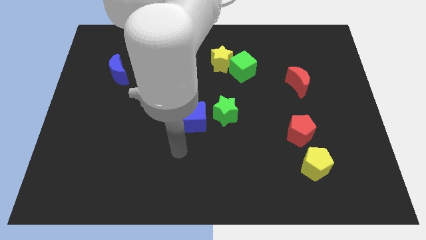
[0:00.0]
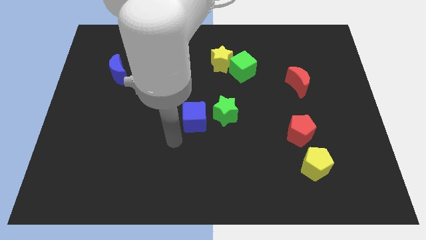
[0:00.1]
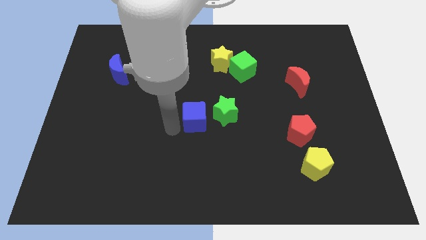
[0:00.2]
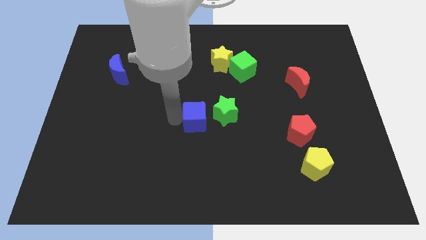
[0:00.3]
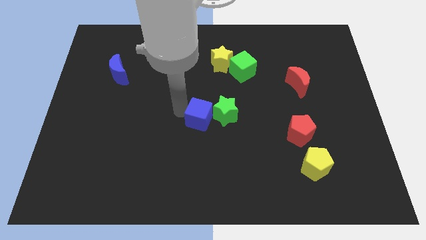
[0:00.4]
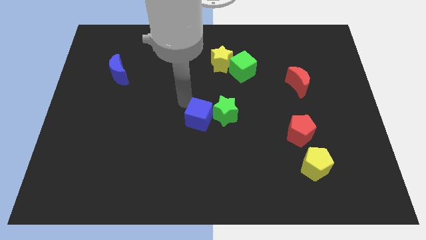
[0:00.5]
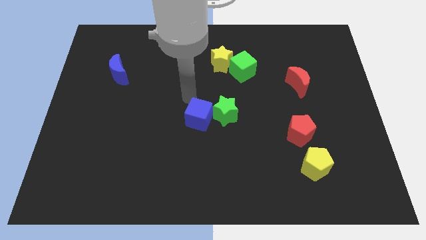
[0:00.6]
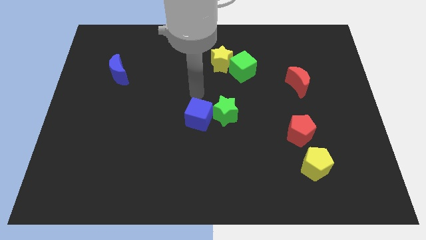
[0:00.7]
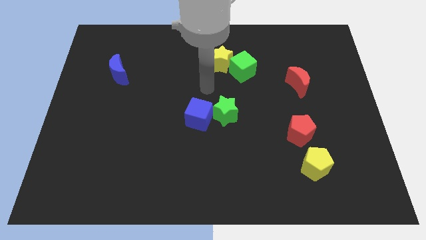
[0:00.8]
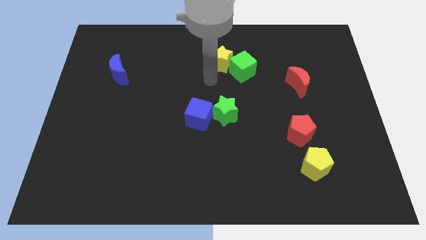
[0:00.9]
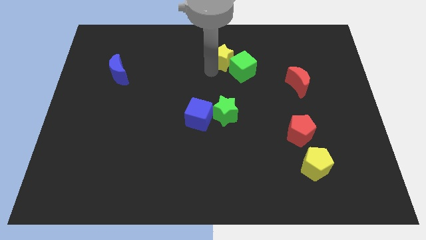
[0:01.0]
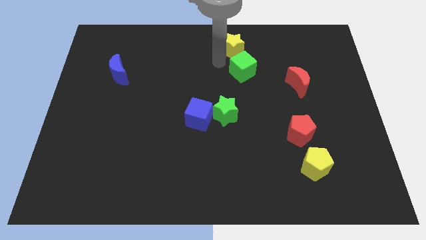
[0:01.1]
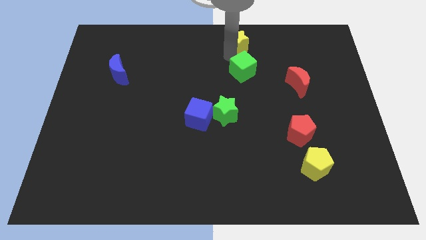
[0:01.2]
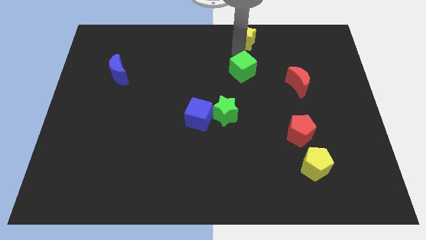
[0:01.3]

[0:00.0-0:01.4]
pull the green cube apart from the yellow star

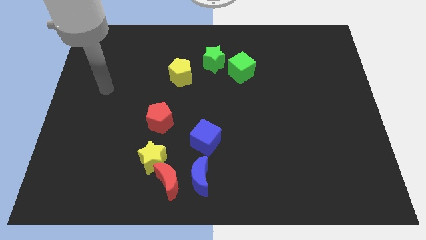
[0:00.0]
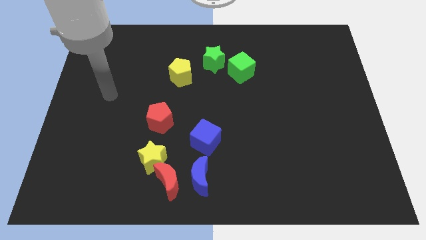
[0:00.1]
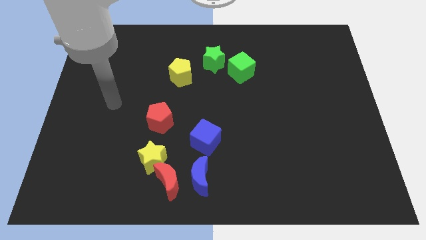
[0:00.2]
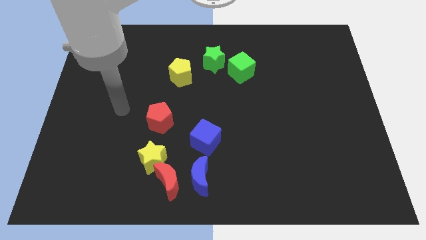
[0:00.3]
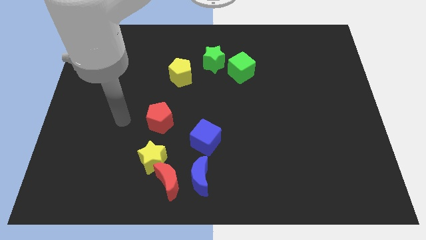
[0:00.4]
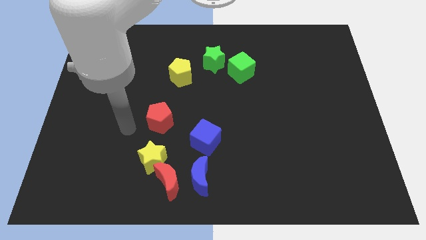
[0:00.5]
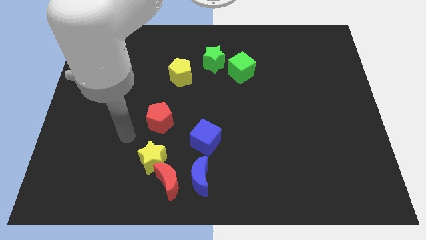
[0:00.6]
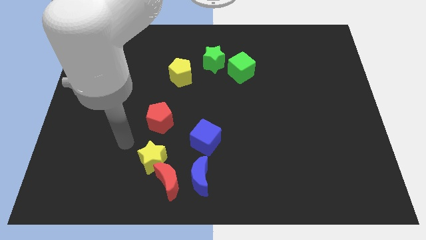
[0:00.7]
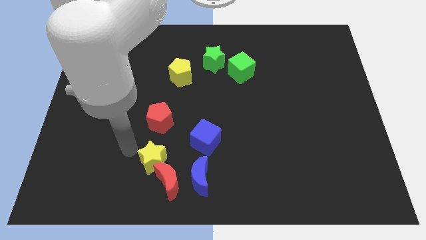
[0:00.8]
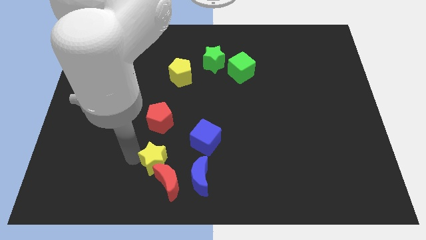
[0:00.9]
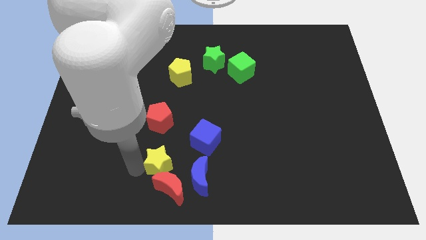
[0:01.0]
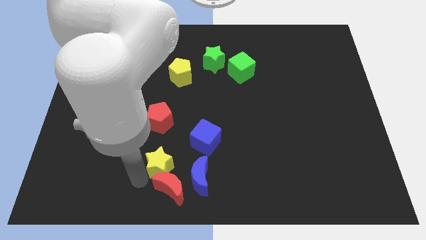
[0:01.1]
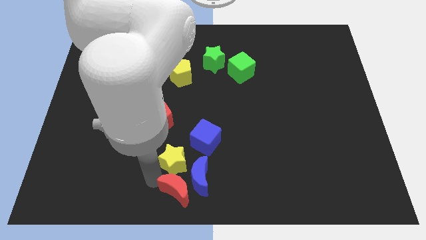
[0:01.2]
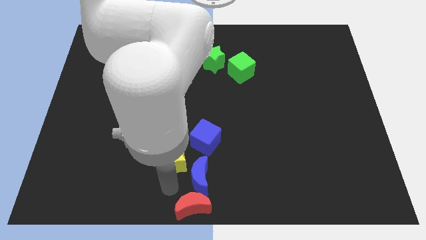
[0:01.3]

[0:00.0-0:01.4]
separate the yellow star from the red moon

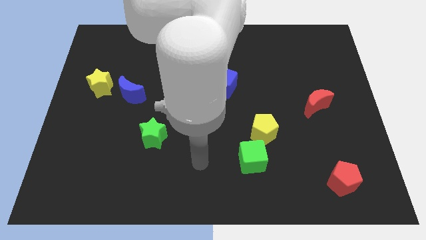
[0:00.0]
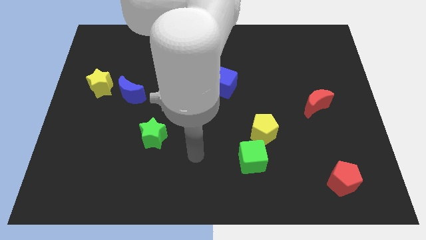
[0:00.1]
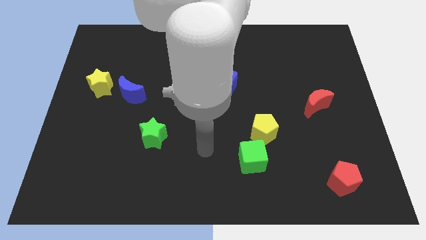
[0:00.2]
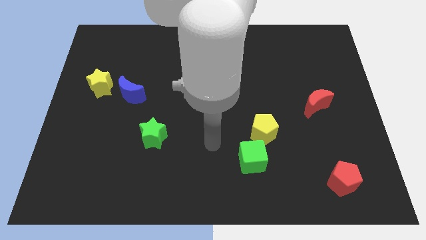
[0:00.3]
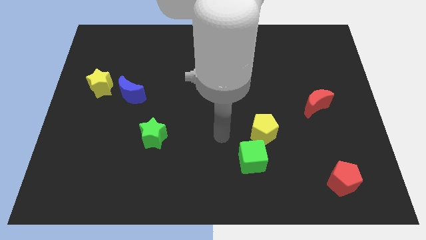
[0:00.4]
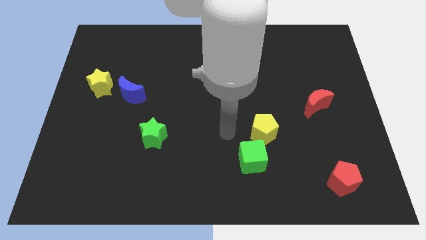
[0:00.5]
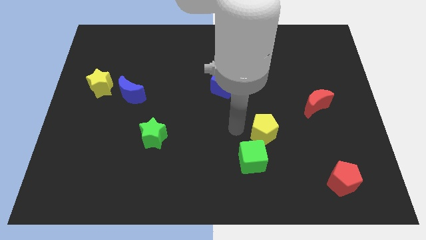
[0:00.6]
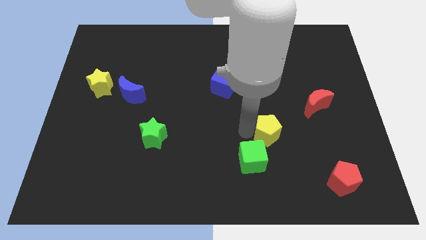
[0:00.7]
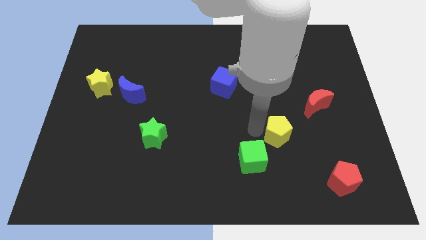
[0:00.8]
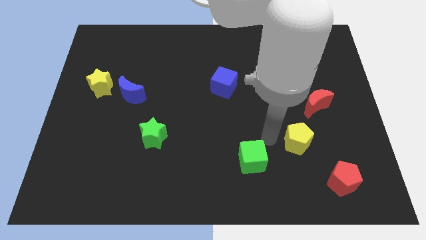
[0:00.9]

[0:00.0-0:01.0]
pull the green cube apart from the yellow pentagon

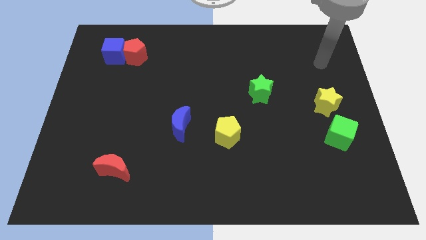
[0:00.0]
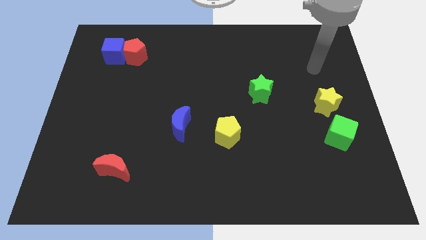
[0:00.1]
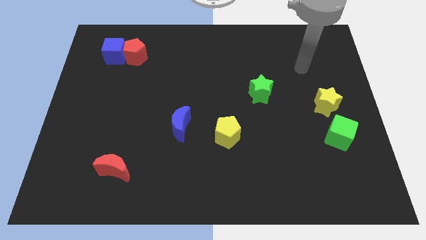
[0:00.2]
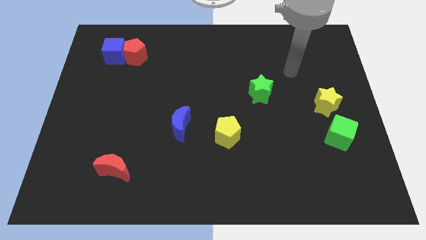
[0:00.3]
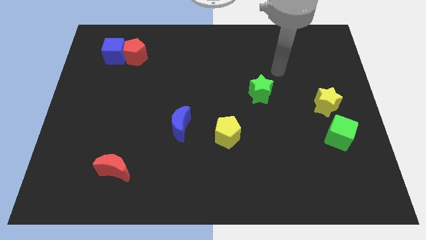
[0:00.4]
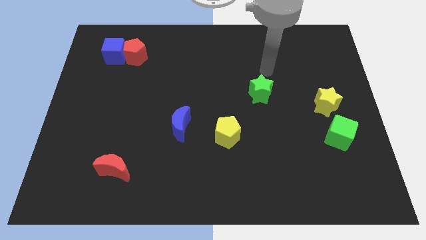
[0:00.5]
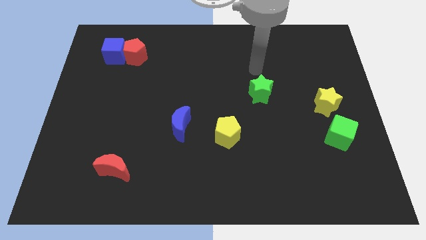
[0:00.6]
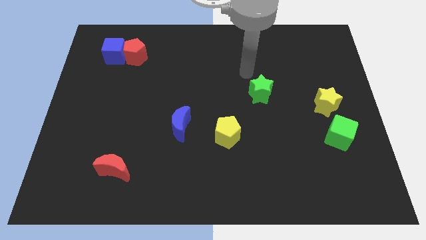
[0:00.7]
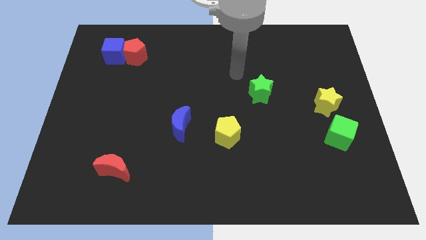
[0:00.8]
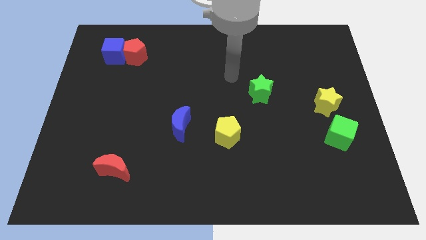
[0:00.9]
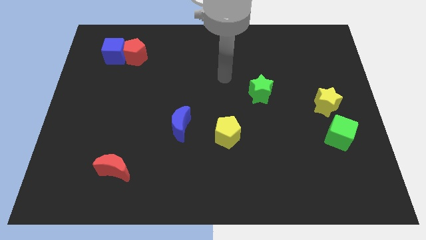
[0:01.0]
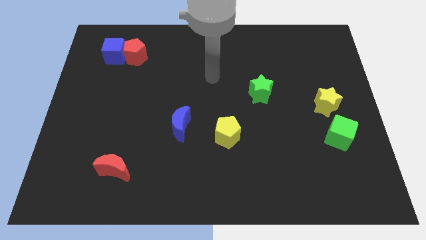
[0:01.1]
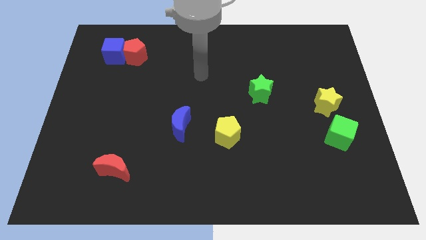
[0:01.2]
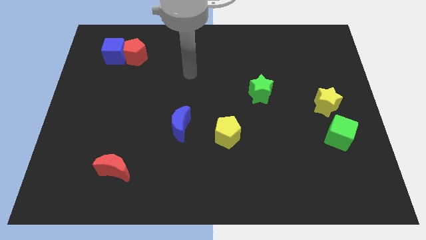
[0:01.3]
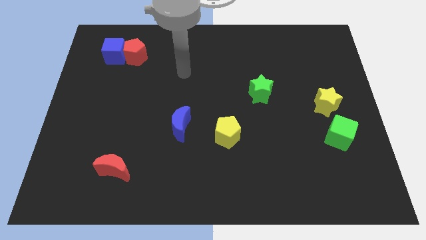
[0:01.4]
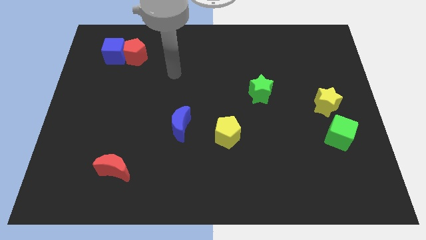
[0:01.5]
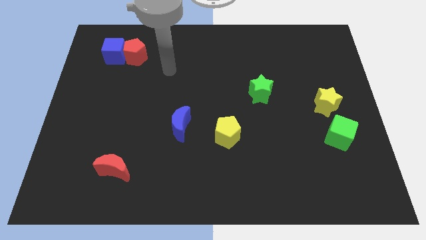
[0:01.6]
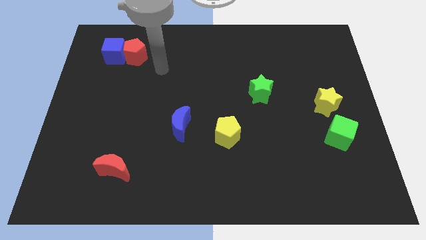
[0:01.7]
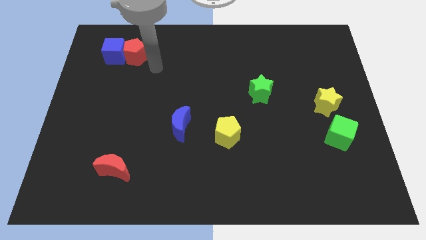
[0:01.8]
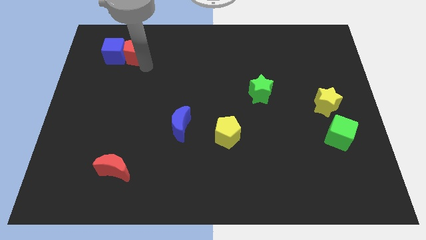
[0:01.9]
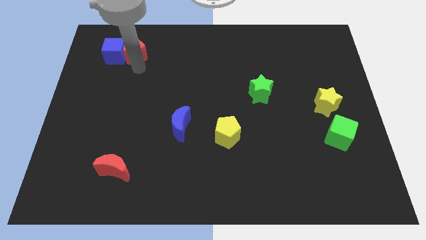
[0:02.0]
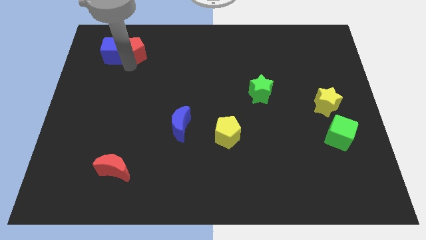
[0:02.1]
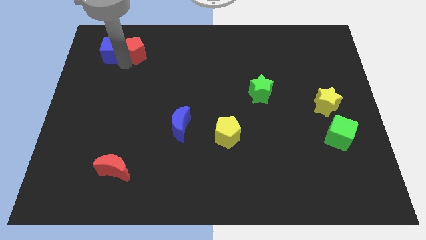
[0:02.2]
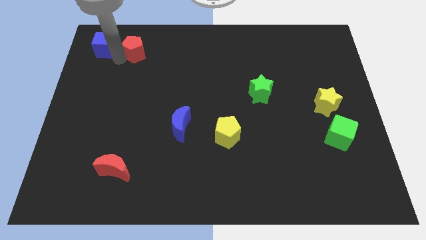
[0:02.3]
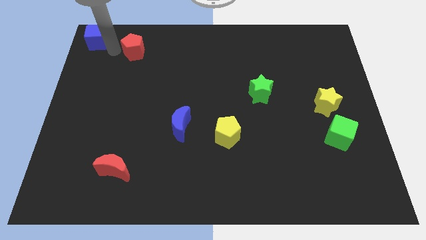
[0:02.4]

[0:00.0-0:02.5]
separate the red pentagon from the blue cube

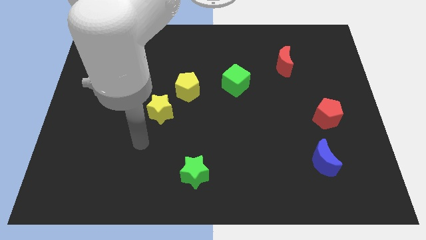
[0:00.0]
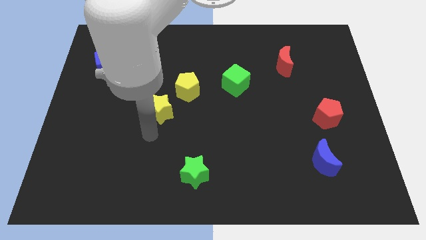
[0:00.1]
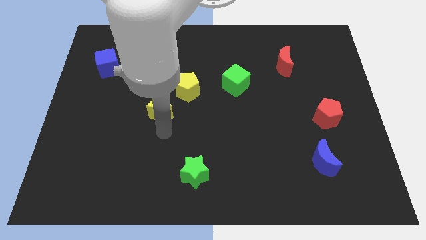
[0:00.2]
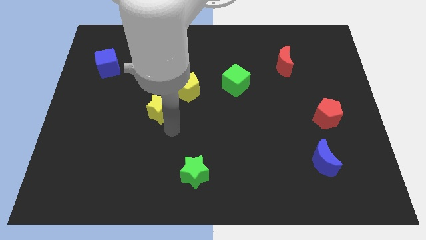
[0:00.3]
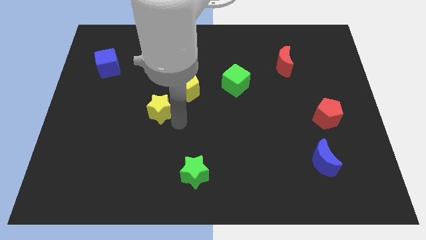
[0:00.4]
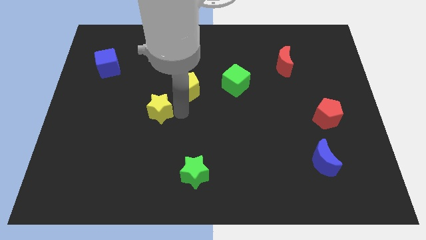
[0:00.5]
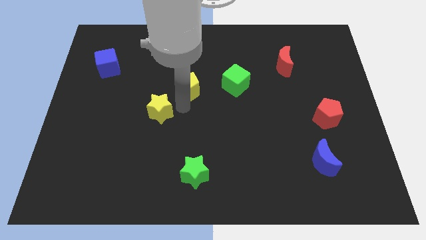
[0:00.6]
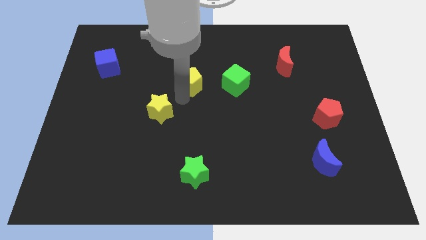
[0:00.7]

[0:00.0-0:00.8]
pull the yellow star apart from the yellow pentagon

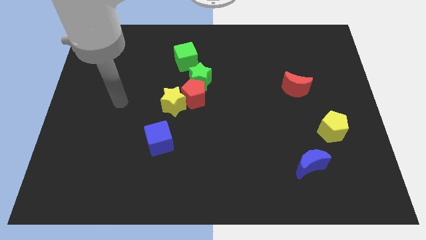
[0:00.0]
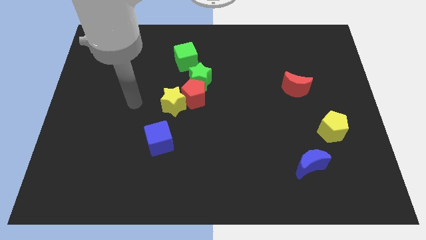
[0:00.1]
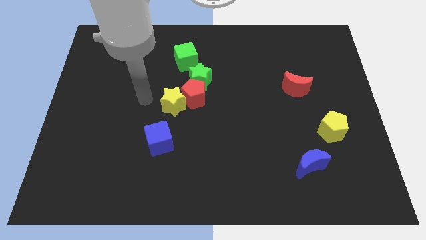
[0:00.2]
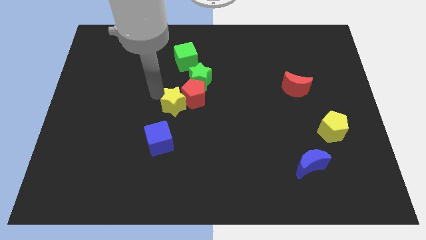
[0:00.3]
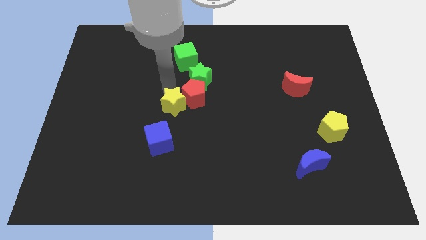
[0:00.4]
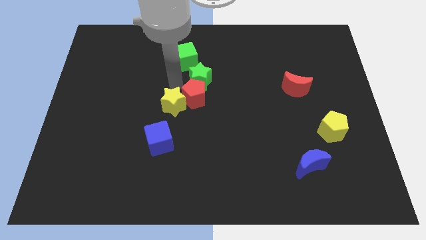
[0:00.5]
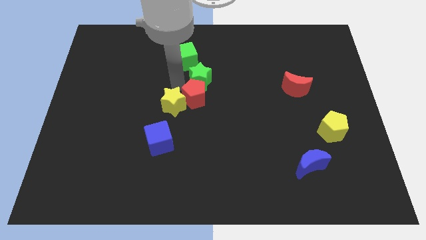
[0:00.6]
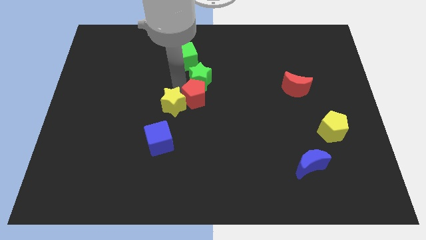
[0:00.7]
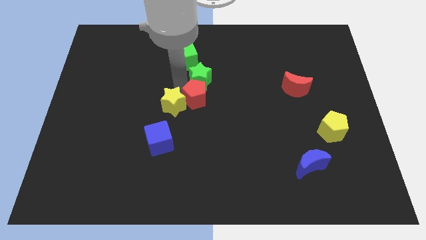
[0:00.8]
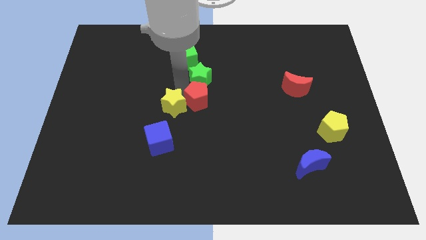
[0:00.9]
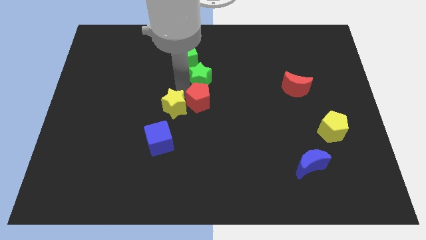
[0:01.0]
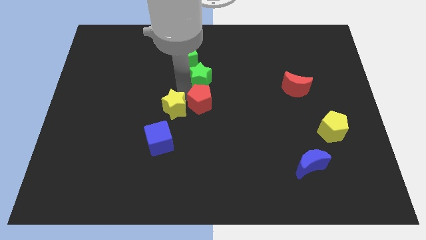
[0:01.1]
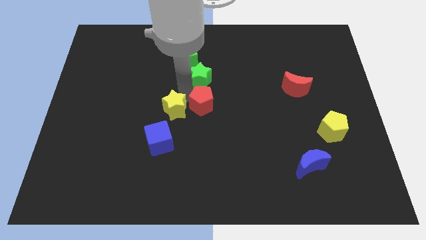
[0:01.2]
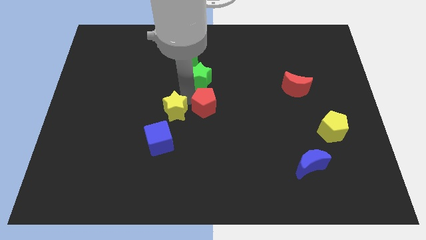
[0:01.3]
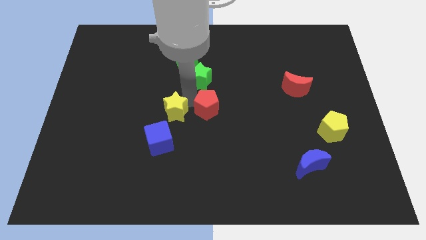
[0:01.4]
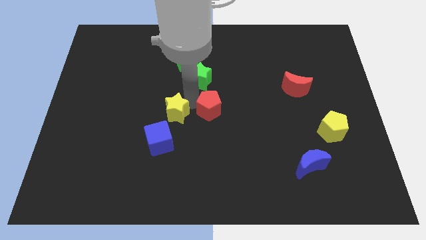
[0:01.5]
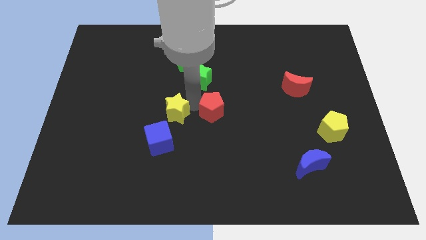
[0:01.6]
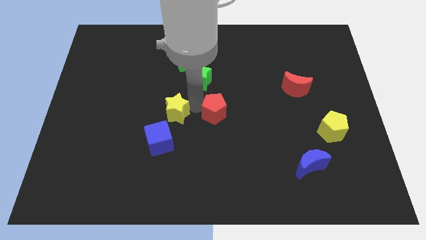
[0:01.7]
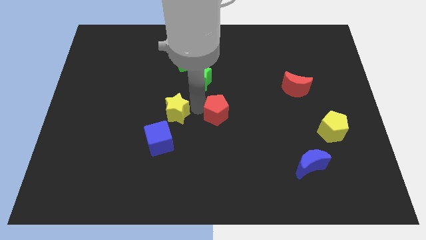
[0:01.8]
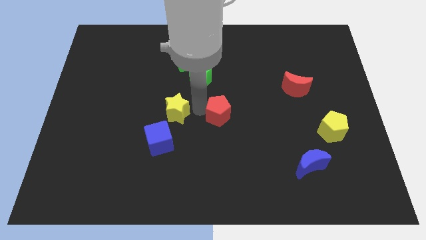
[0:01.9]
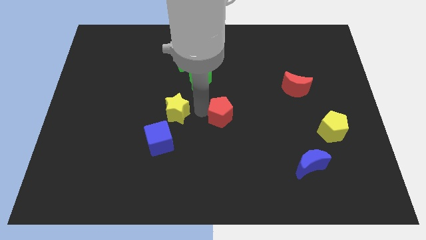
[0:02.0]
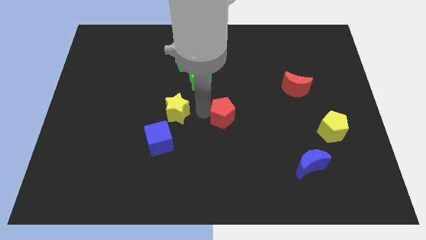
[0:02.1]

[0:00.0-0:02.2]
move the red pentagon away from the yellow star and green star
